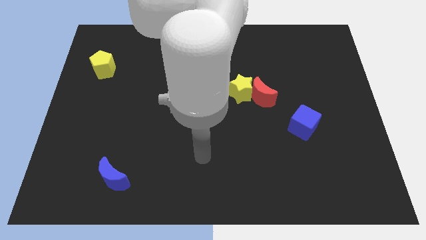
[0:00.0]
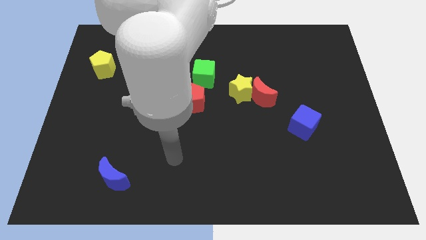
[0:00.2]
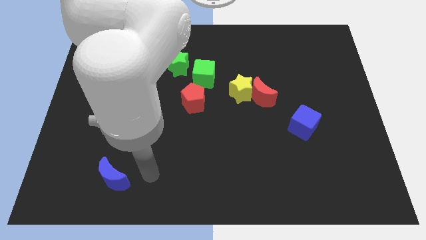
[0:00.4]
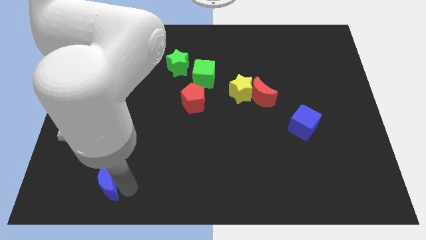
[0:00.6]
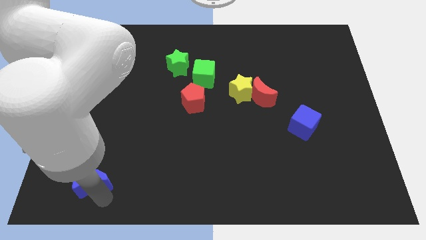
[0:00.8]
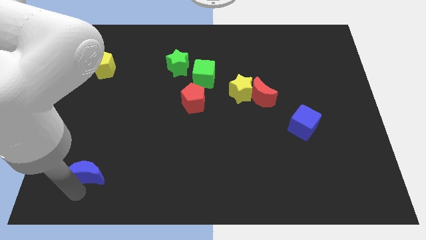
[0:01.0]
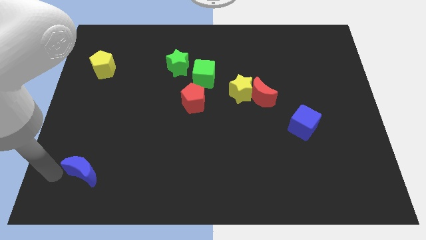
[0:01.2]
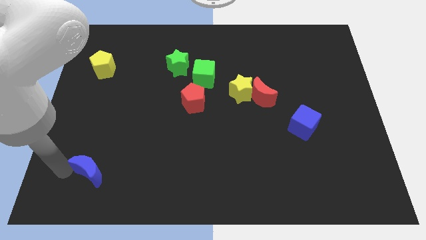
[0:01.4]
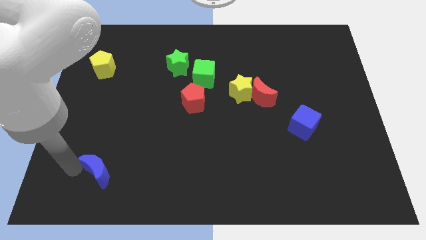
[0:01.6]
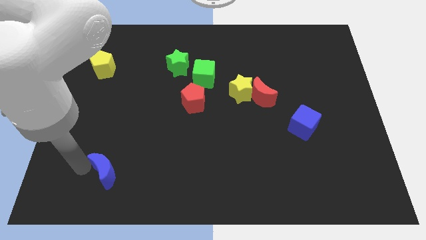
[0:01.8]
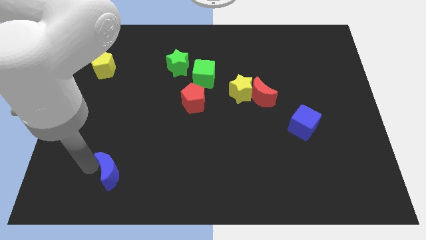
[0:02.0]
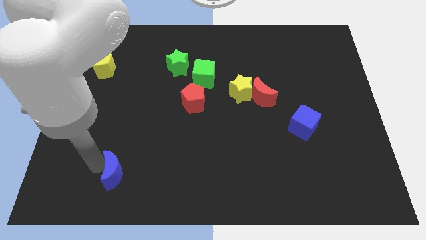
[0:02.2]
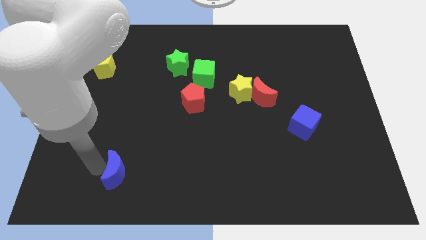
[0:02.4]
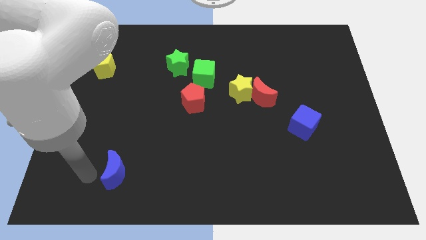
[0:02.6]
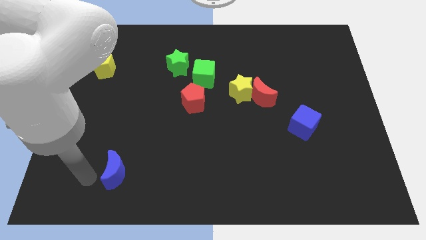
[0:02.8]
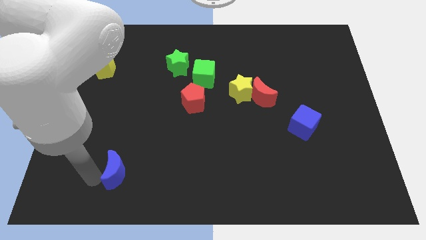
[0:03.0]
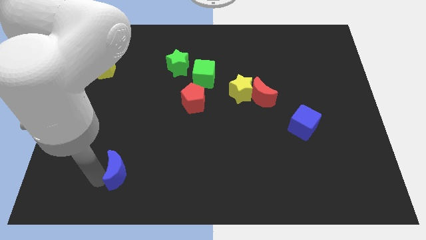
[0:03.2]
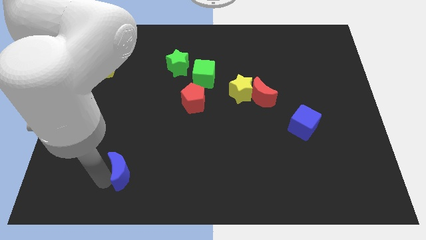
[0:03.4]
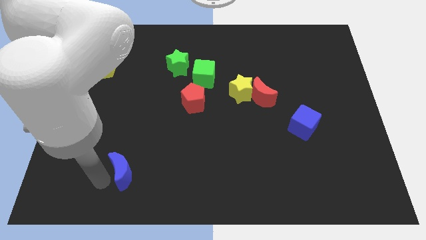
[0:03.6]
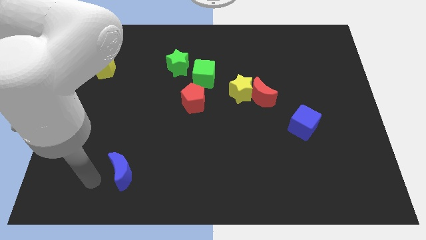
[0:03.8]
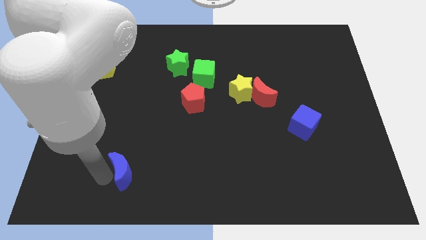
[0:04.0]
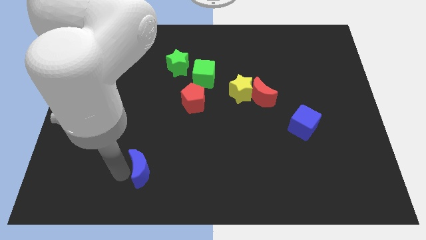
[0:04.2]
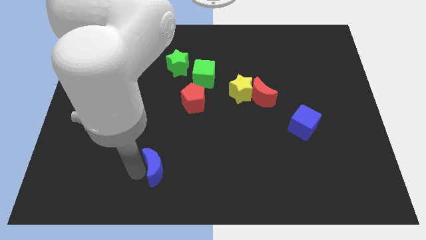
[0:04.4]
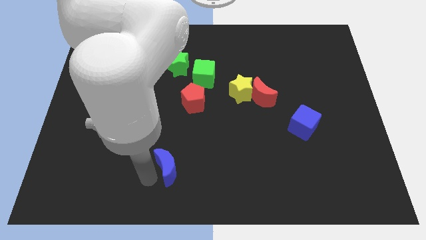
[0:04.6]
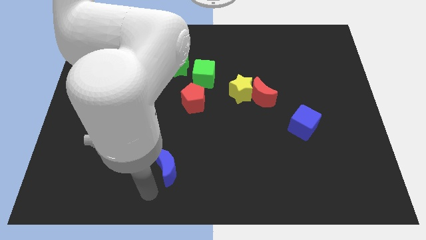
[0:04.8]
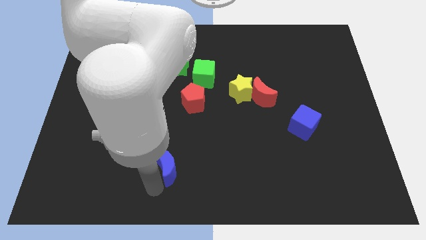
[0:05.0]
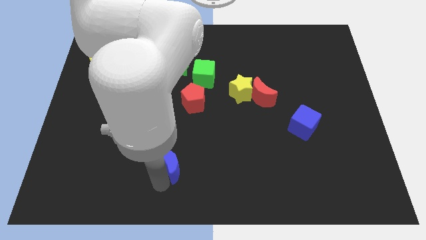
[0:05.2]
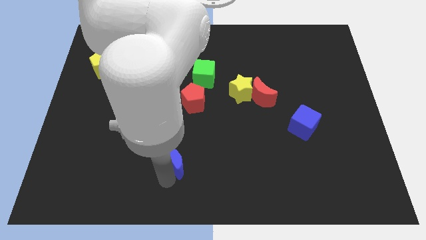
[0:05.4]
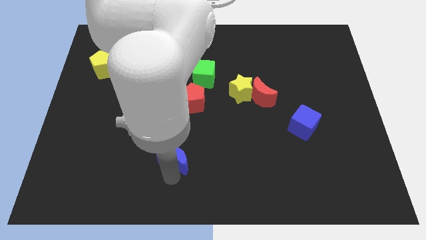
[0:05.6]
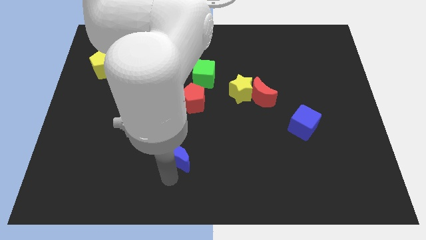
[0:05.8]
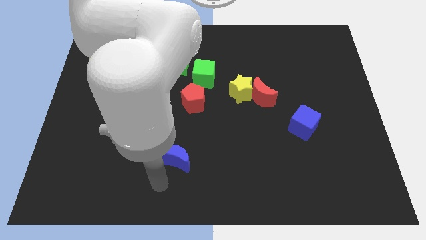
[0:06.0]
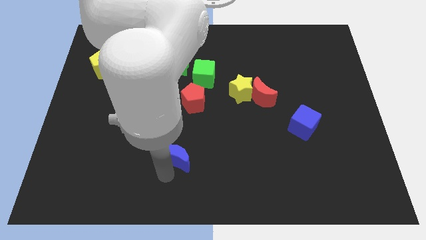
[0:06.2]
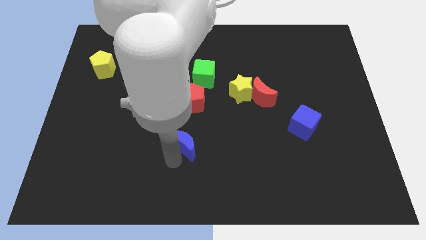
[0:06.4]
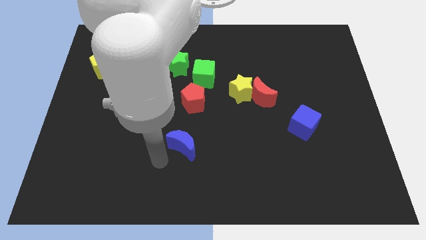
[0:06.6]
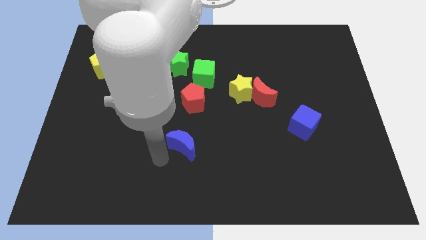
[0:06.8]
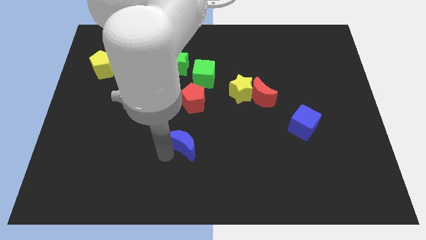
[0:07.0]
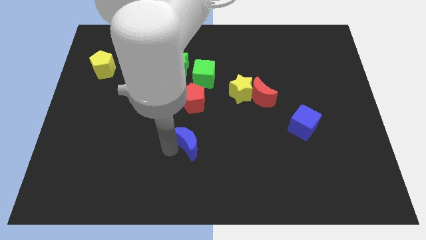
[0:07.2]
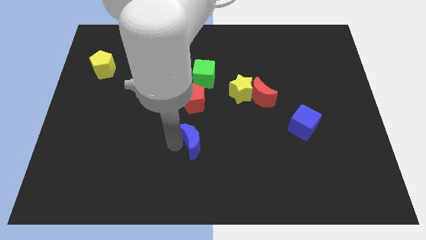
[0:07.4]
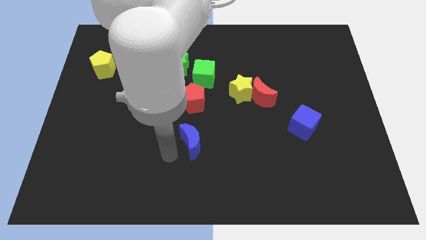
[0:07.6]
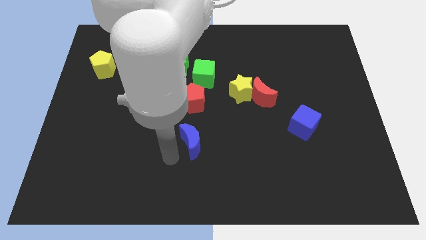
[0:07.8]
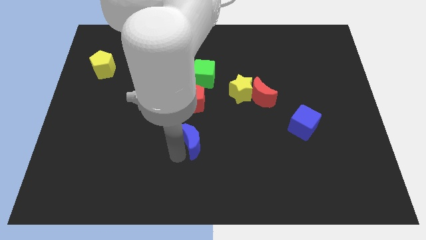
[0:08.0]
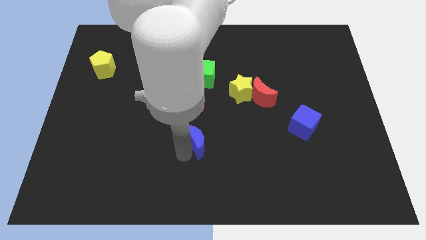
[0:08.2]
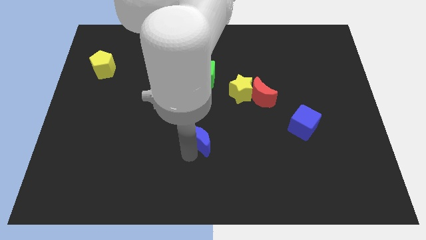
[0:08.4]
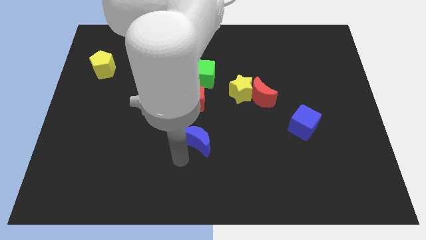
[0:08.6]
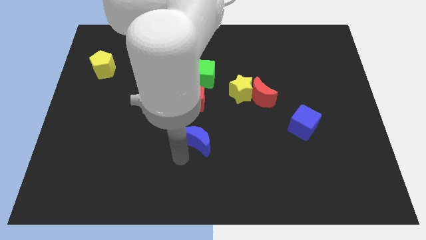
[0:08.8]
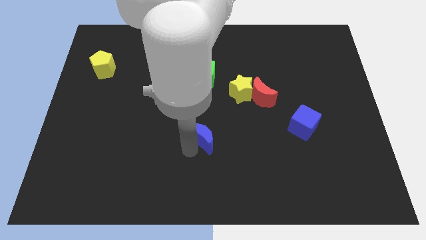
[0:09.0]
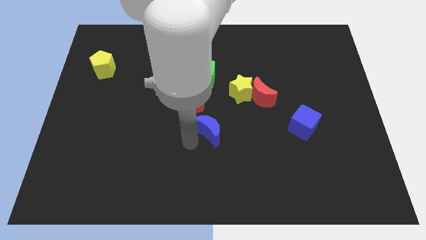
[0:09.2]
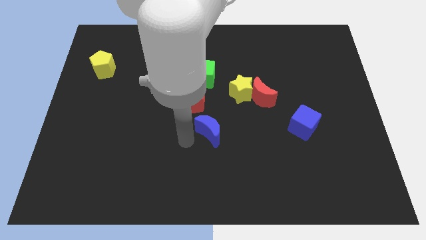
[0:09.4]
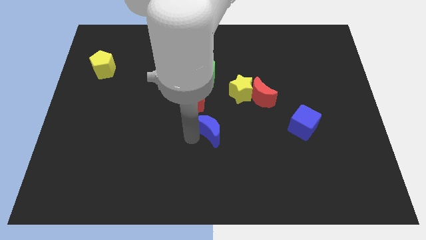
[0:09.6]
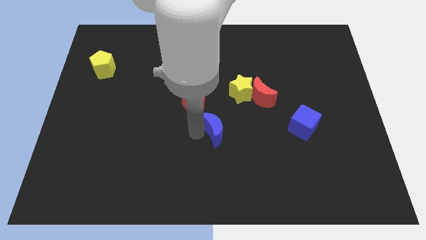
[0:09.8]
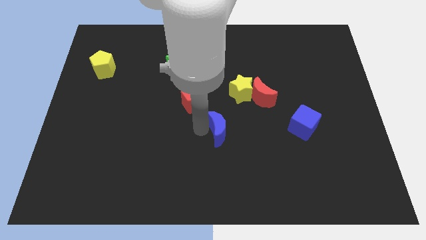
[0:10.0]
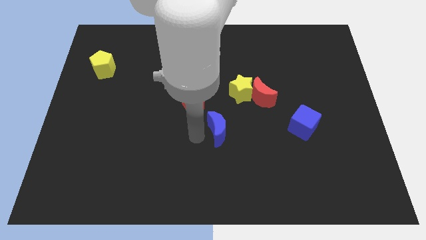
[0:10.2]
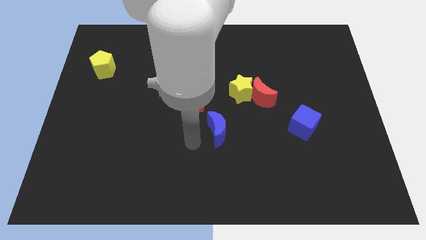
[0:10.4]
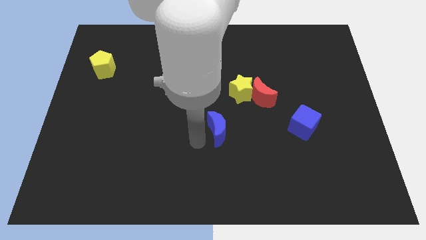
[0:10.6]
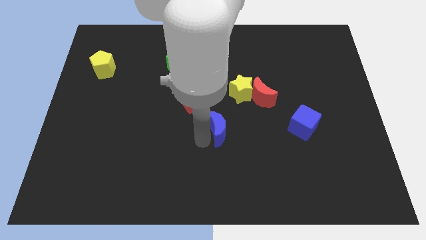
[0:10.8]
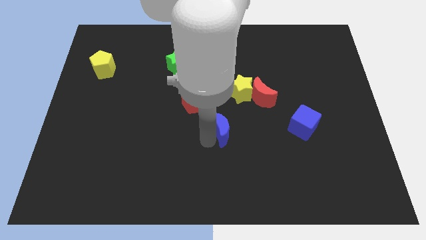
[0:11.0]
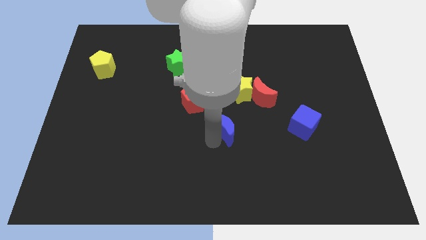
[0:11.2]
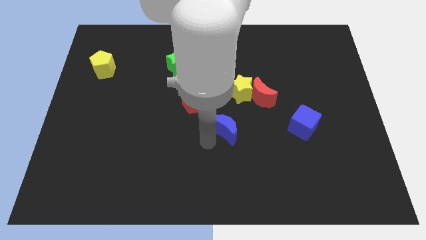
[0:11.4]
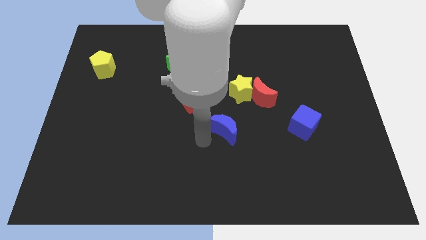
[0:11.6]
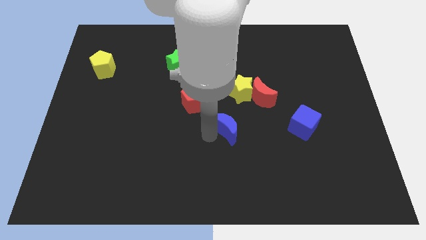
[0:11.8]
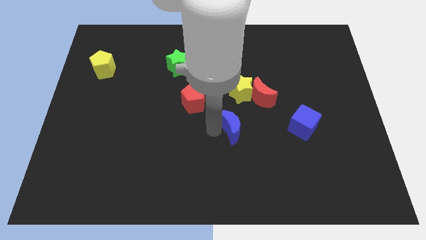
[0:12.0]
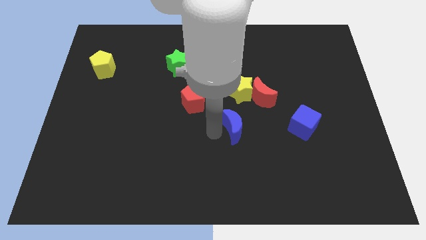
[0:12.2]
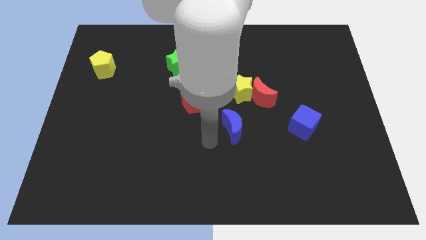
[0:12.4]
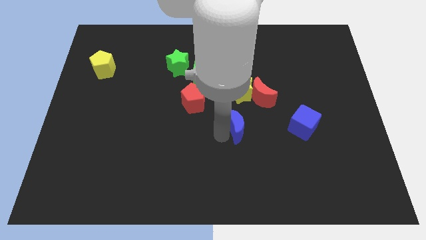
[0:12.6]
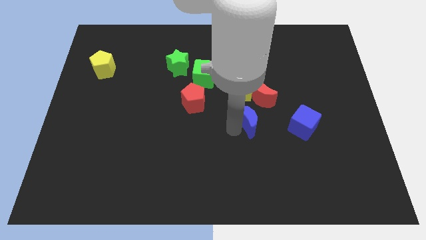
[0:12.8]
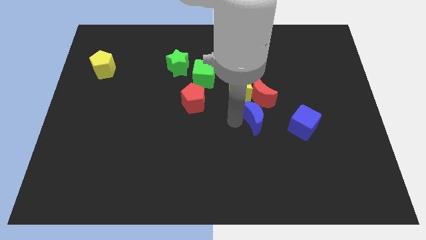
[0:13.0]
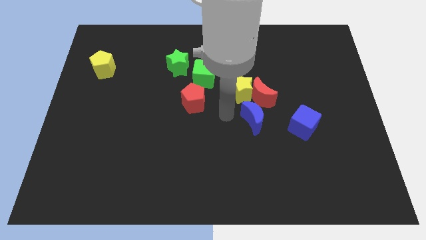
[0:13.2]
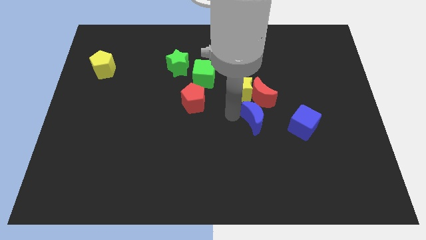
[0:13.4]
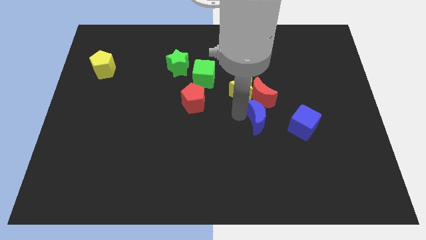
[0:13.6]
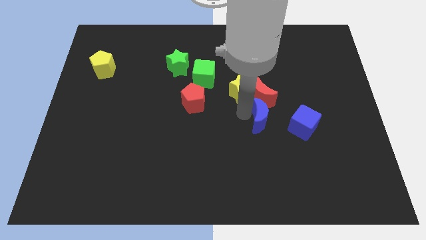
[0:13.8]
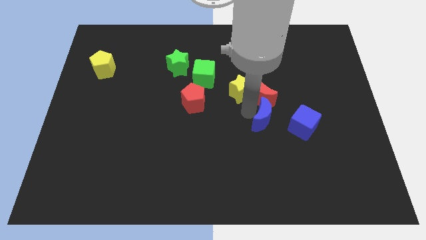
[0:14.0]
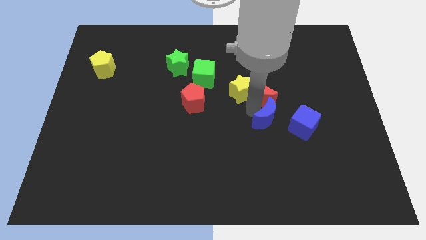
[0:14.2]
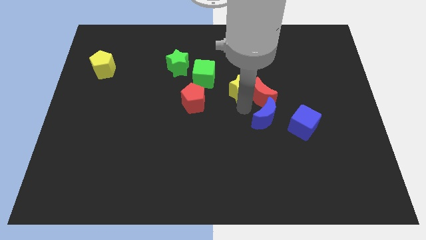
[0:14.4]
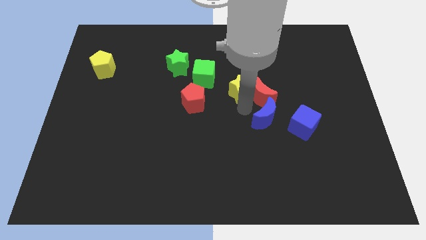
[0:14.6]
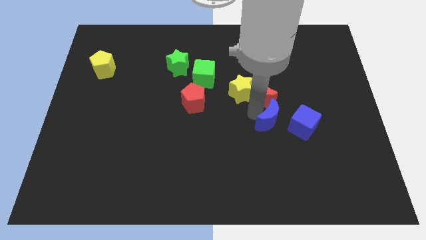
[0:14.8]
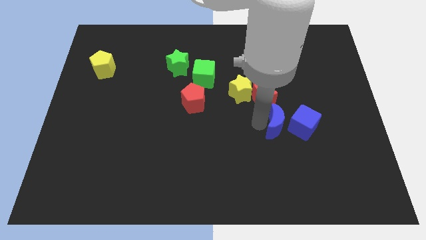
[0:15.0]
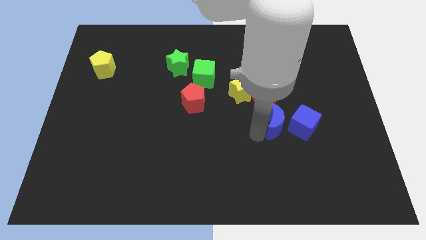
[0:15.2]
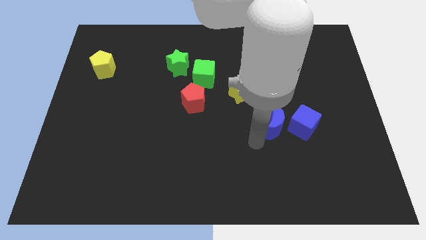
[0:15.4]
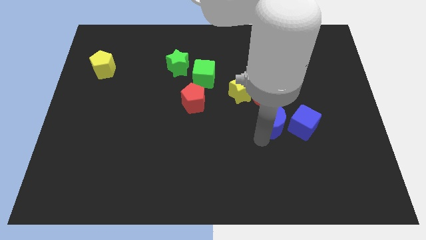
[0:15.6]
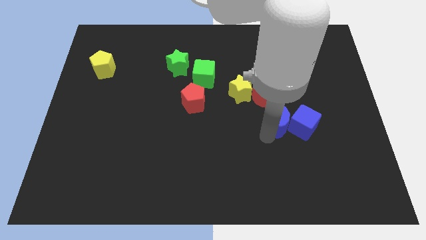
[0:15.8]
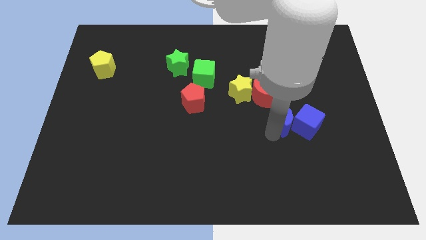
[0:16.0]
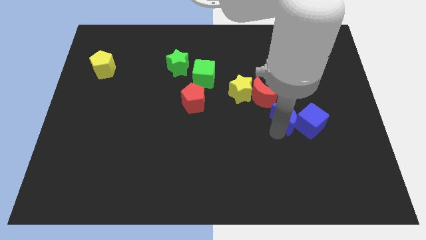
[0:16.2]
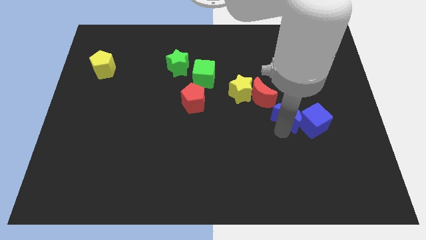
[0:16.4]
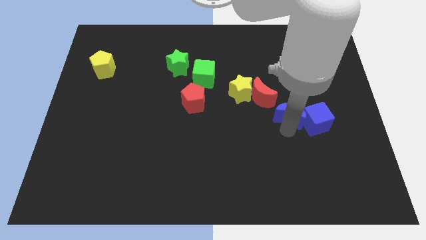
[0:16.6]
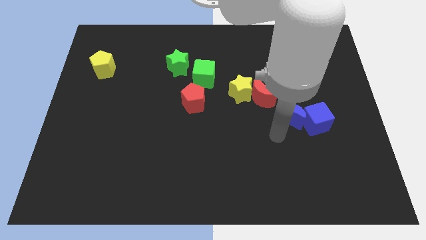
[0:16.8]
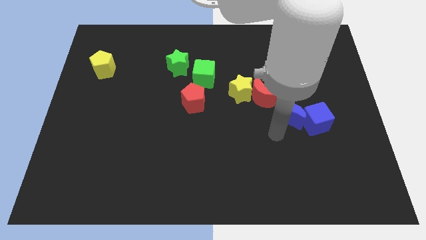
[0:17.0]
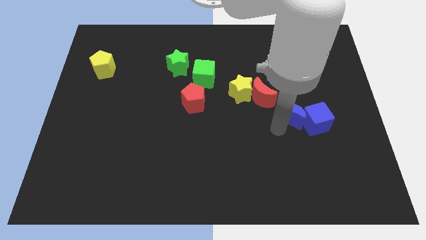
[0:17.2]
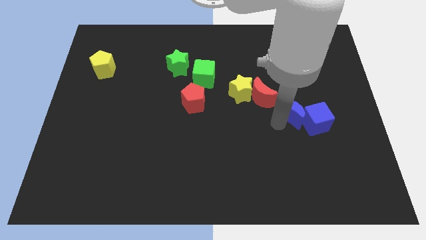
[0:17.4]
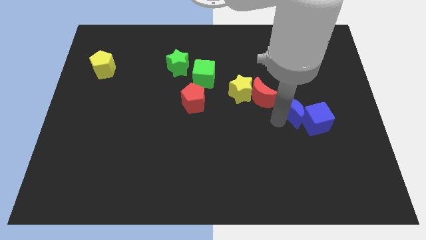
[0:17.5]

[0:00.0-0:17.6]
put the blue moon to the right of the red moon
